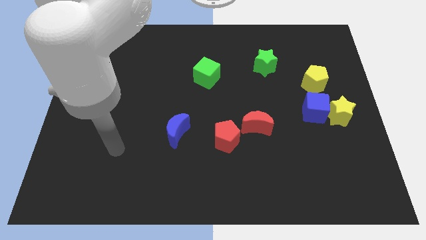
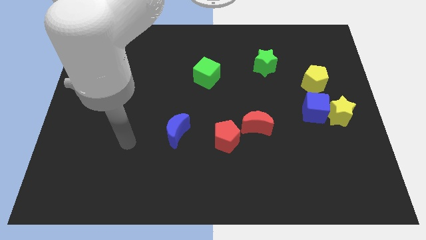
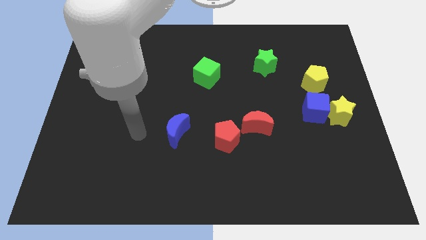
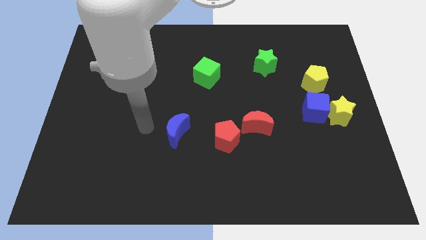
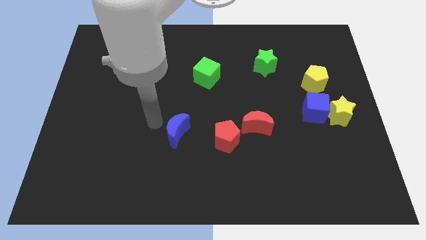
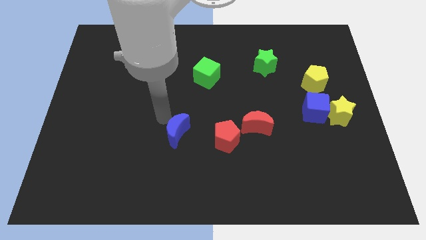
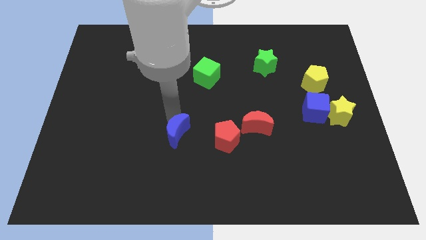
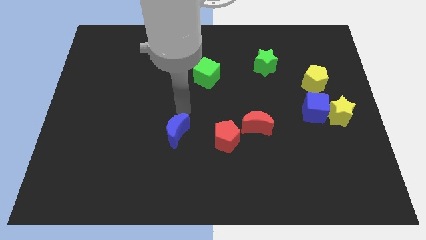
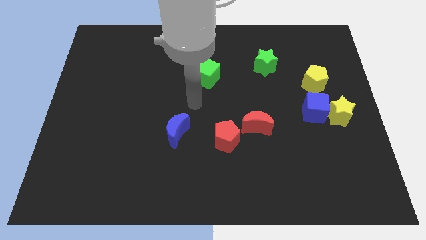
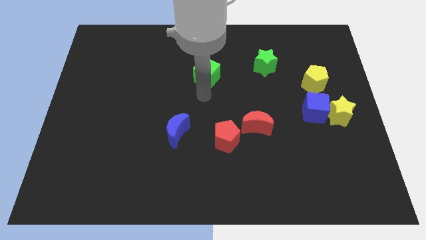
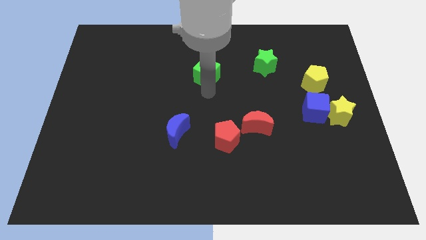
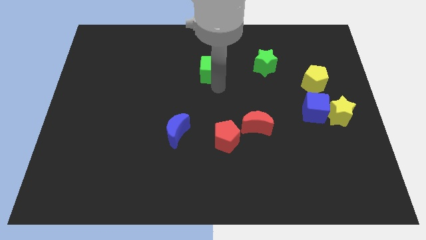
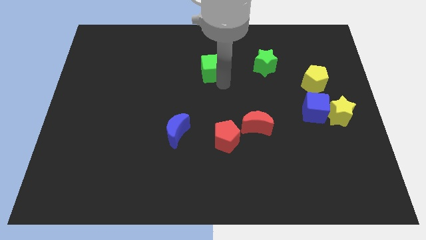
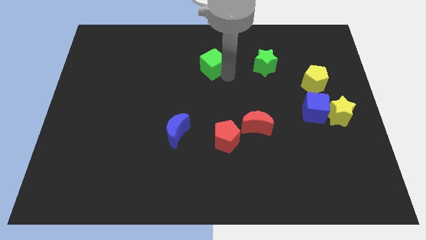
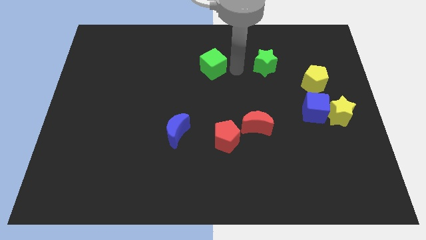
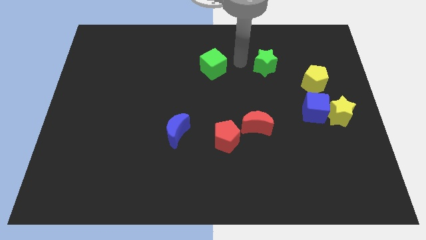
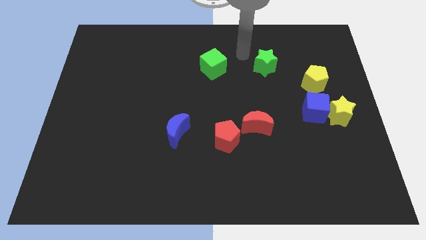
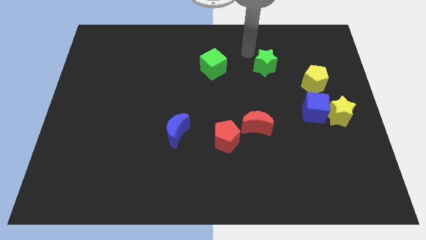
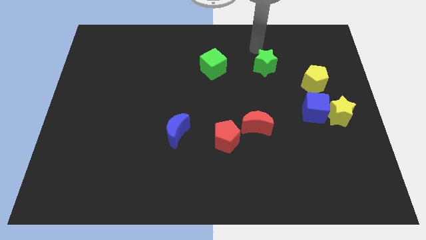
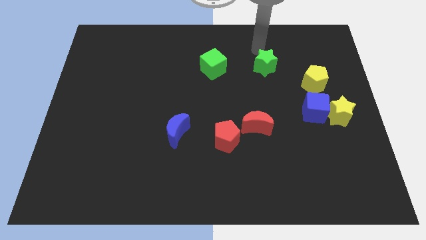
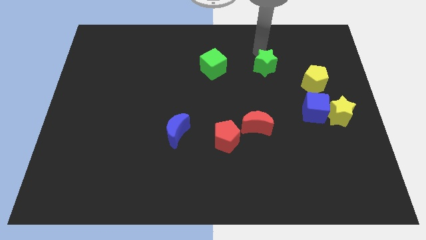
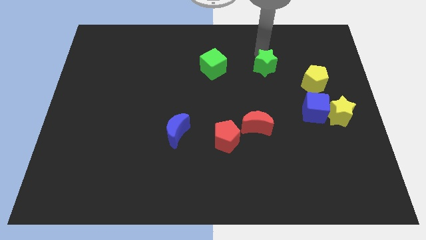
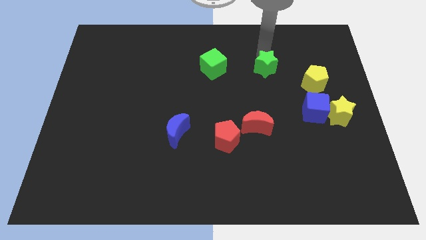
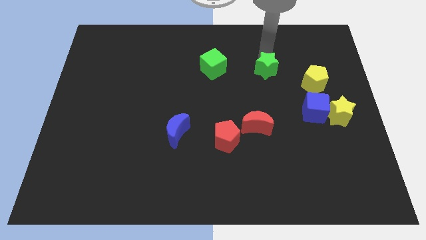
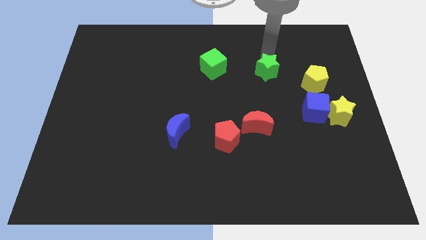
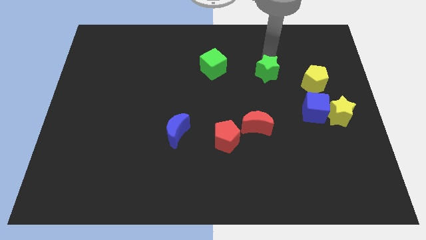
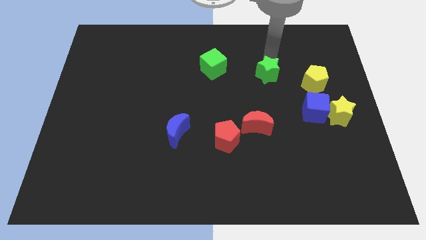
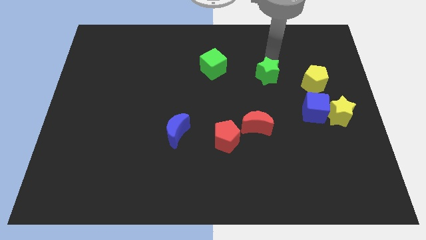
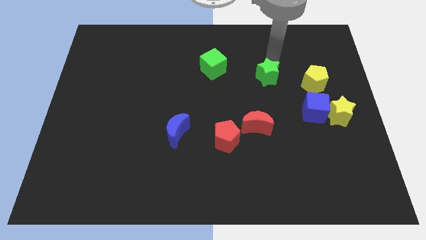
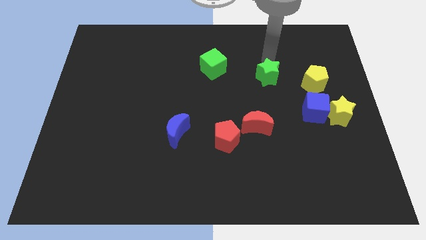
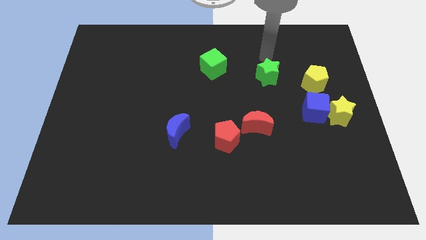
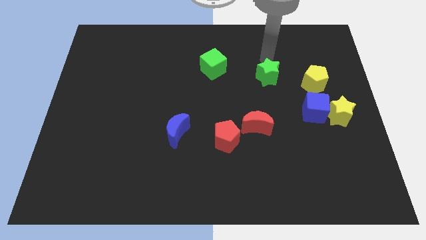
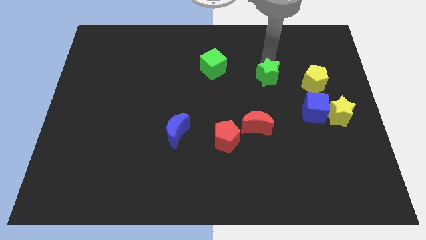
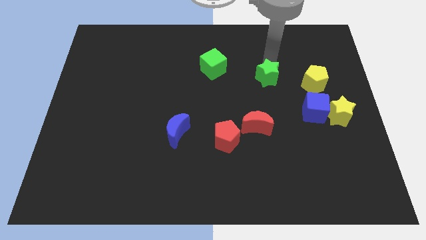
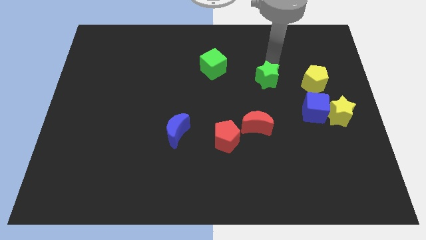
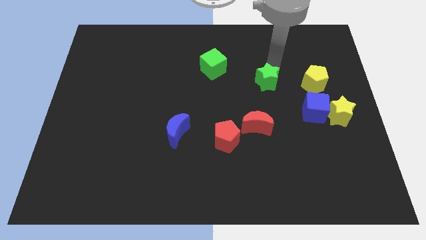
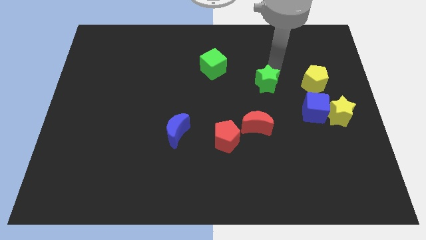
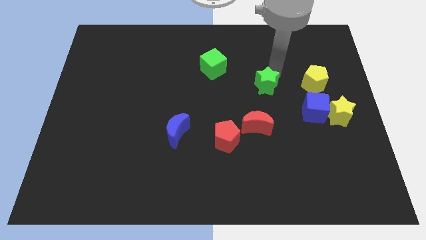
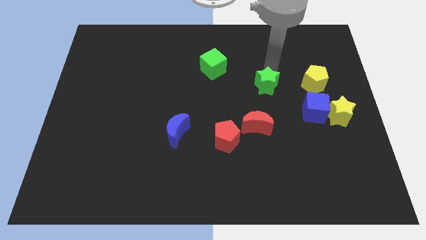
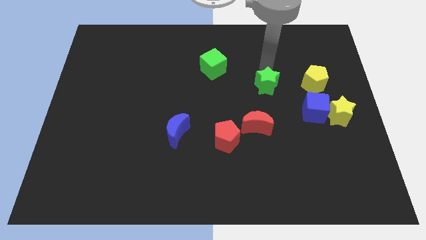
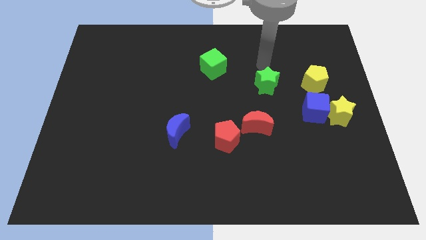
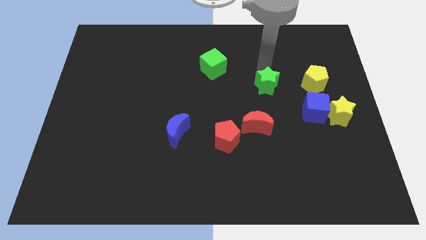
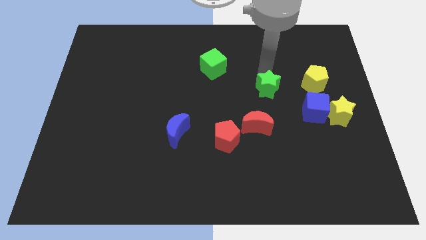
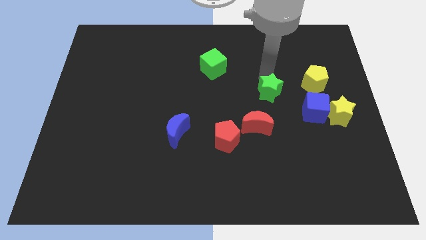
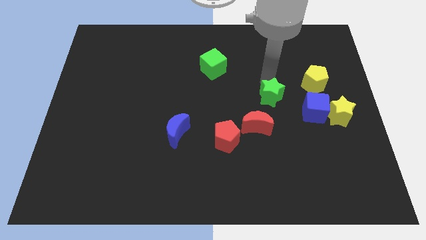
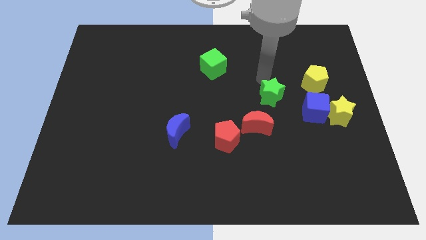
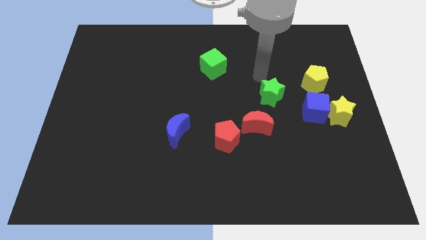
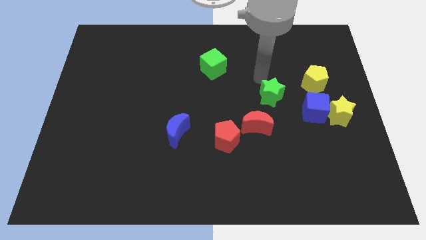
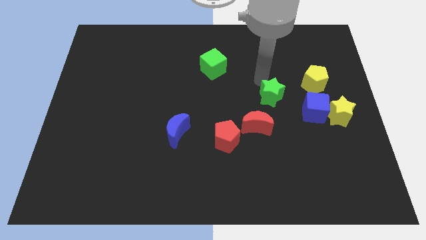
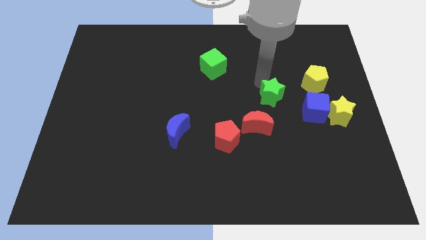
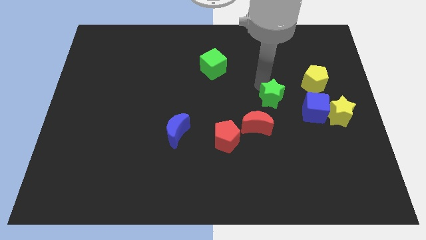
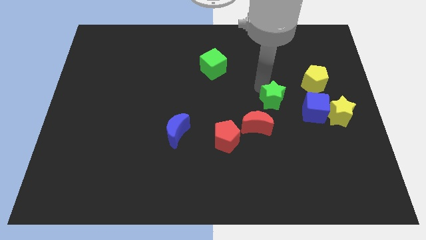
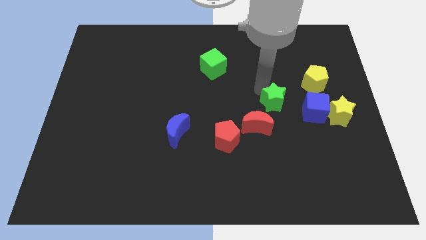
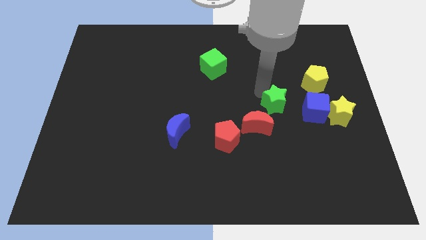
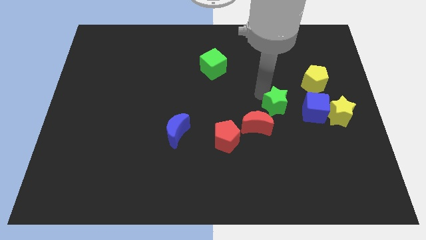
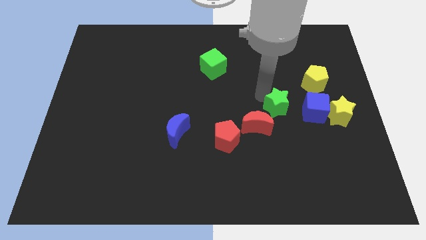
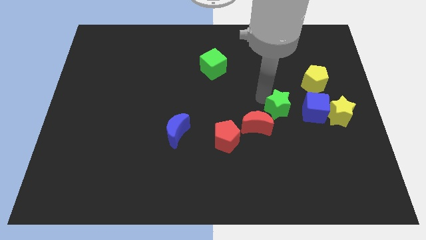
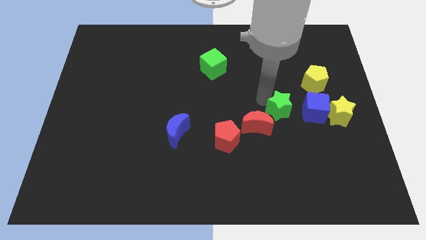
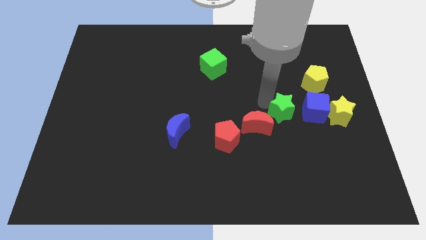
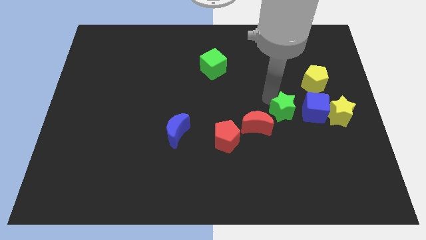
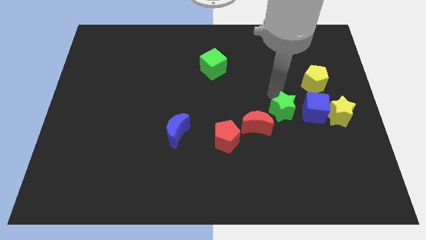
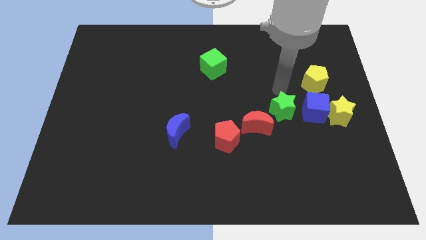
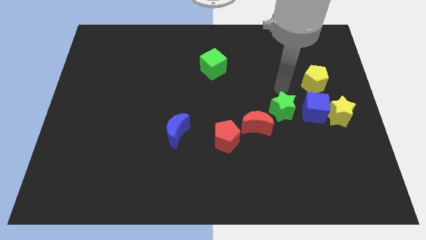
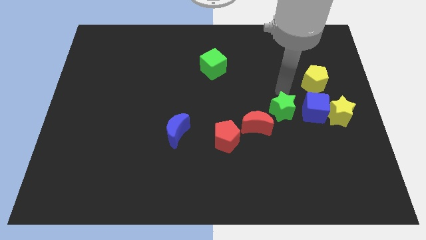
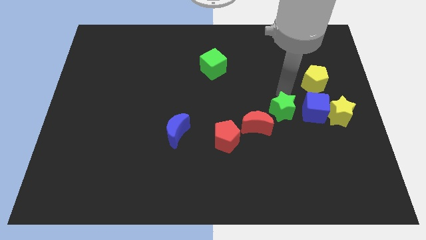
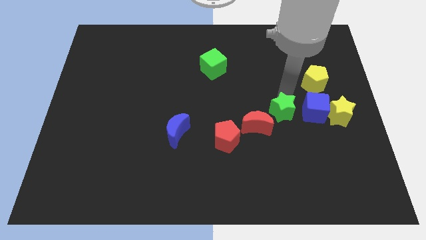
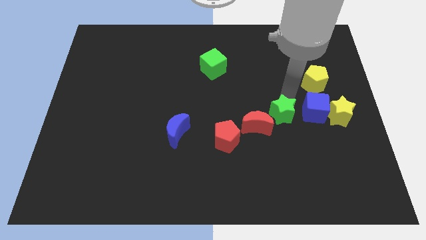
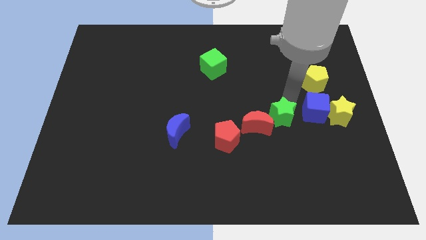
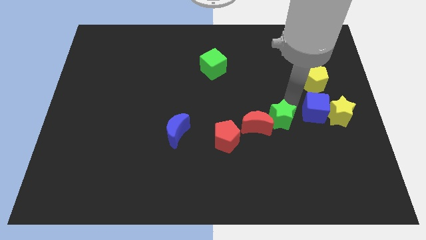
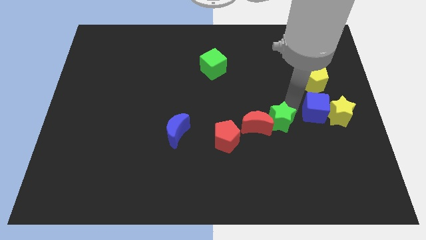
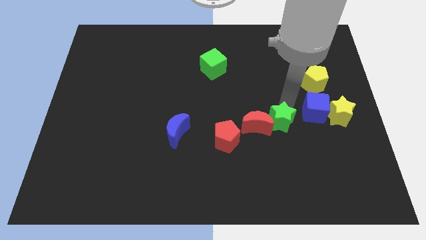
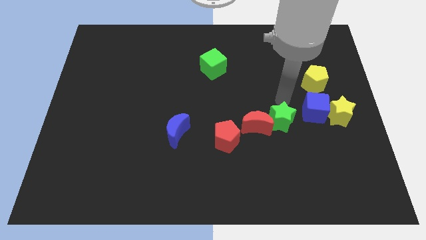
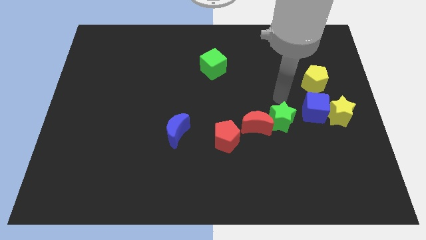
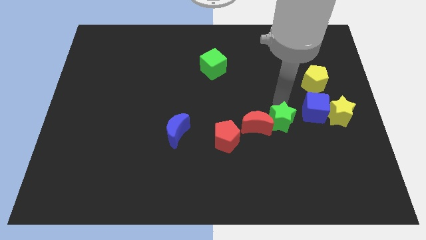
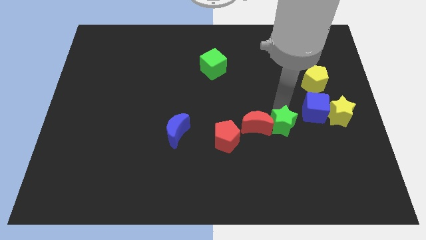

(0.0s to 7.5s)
move the green star diagonally down and to the right of the red moon
